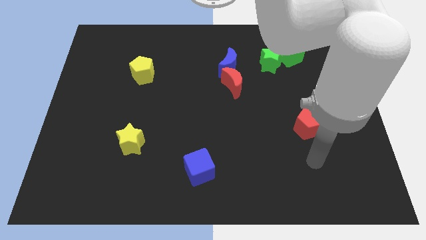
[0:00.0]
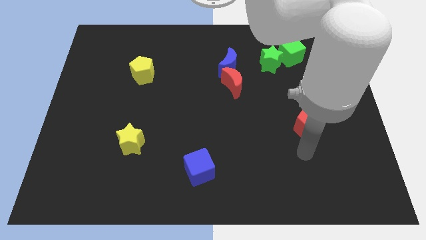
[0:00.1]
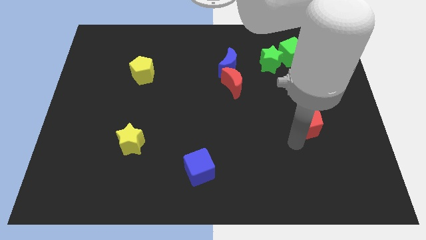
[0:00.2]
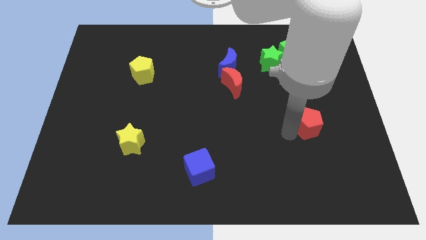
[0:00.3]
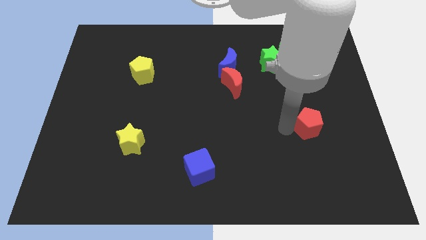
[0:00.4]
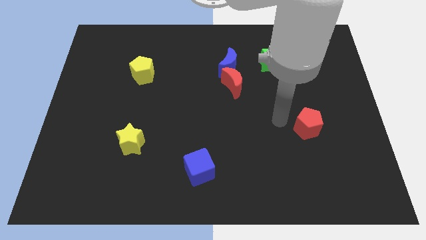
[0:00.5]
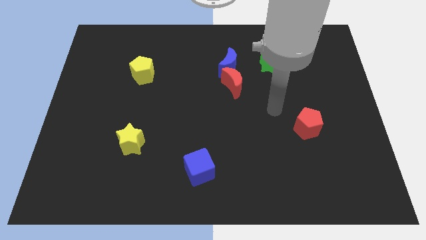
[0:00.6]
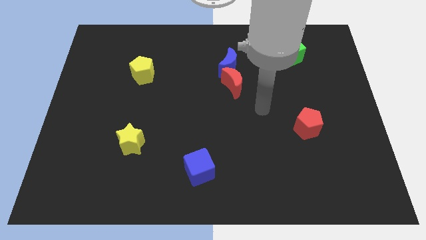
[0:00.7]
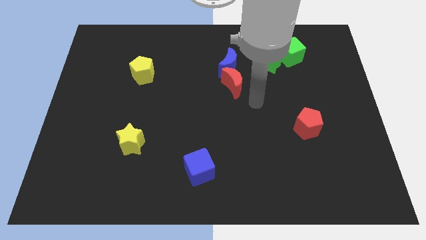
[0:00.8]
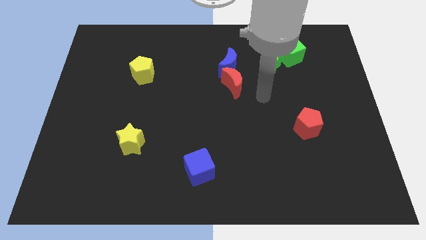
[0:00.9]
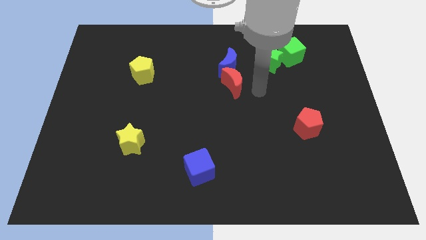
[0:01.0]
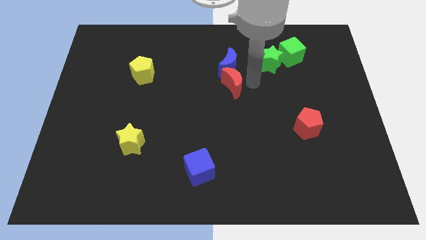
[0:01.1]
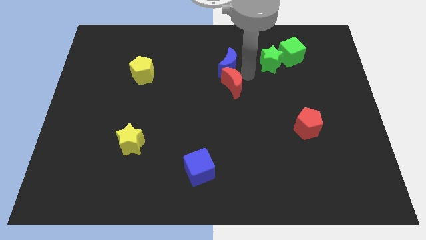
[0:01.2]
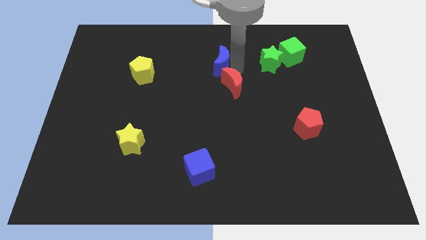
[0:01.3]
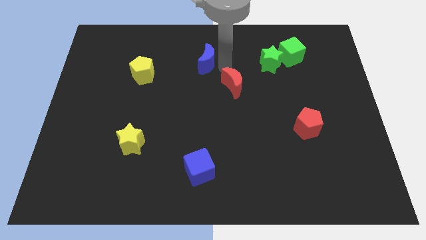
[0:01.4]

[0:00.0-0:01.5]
pull the red moon apart from the blue moon

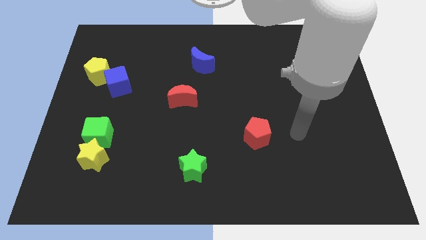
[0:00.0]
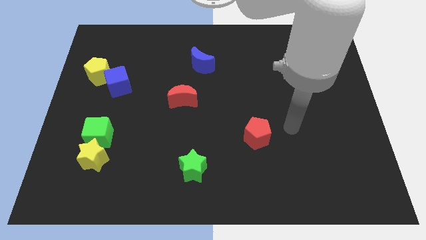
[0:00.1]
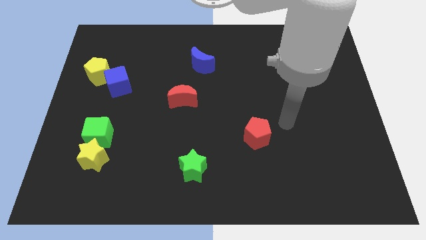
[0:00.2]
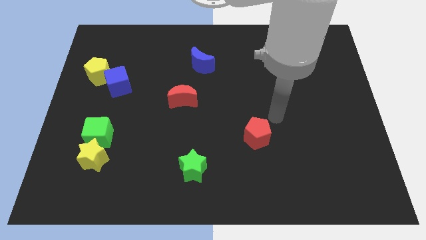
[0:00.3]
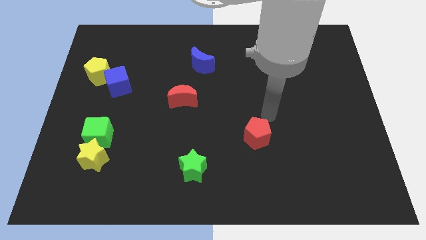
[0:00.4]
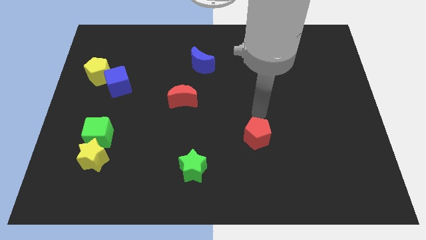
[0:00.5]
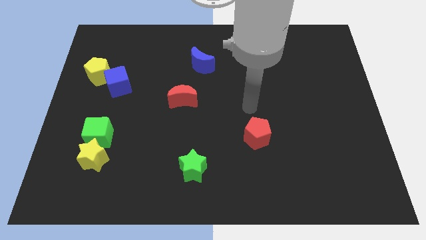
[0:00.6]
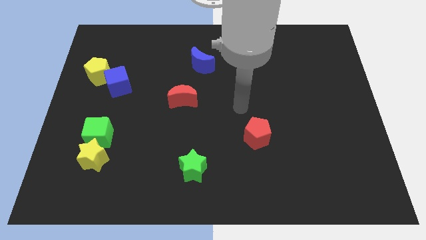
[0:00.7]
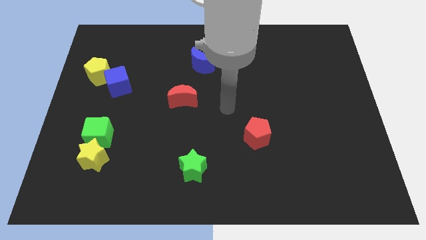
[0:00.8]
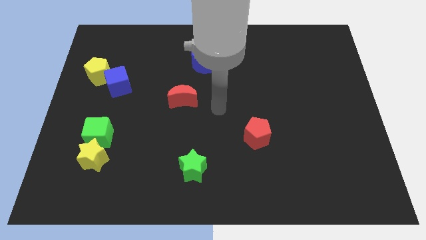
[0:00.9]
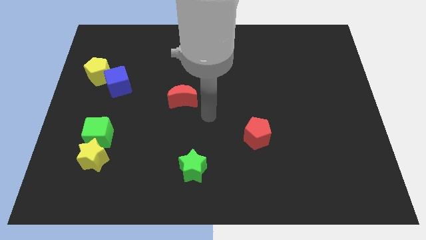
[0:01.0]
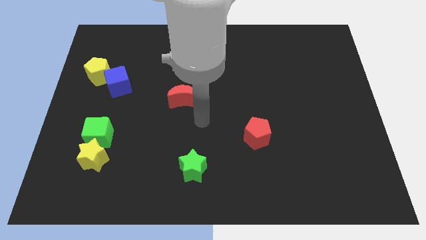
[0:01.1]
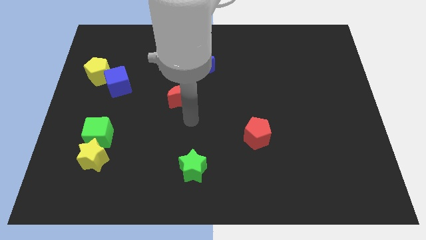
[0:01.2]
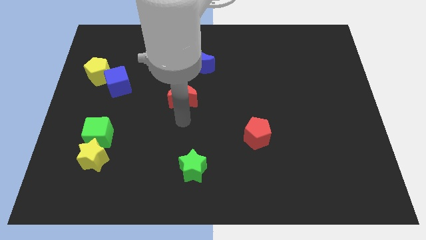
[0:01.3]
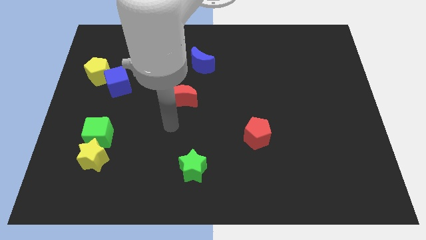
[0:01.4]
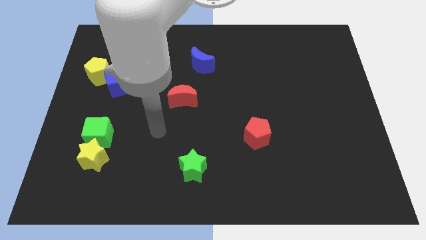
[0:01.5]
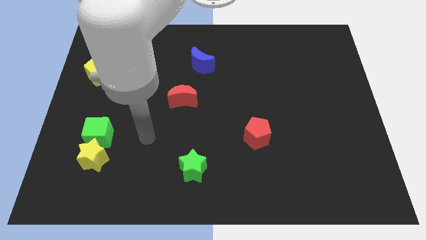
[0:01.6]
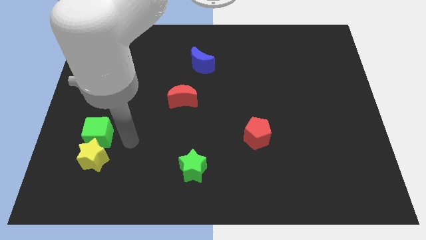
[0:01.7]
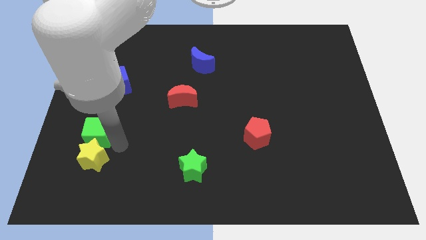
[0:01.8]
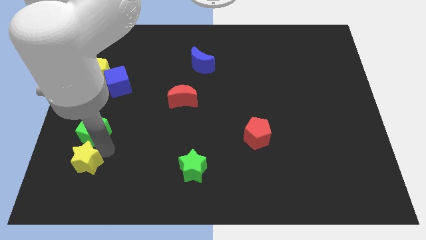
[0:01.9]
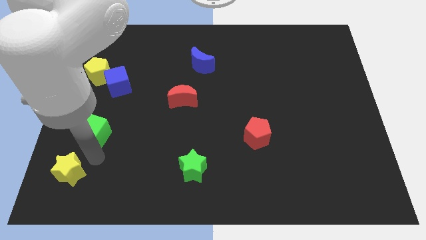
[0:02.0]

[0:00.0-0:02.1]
pull the green cube apart from the yellow star

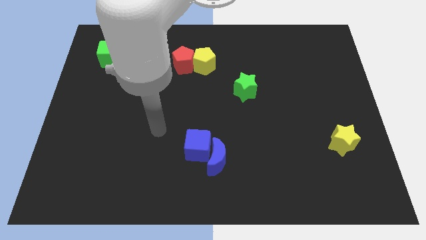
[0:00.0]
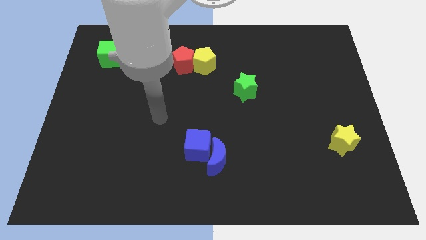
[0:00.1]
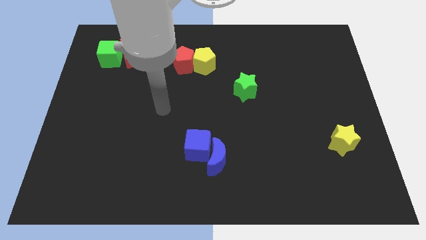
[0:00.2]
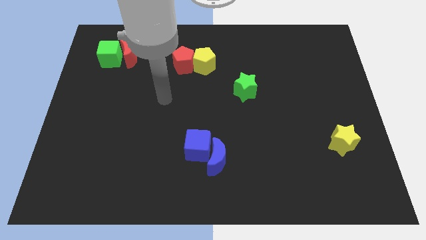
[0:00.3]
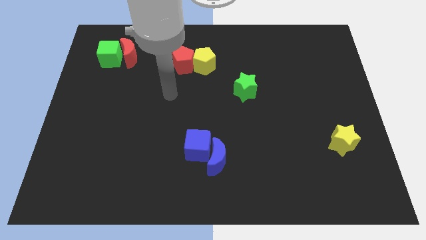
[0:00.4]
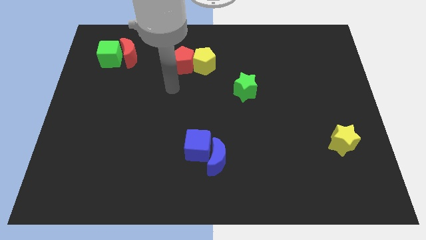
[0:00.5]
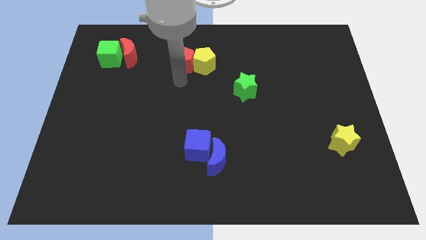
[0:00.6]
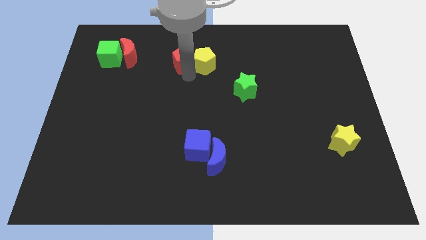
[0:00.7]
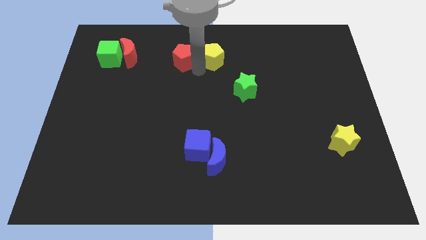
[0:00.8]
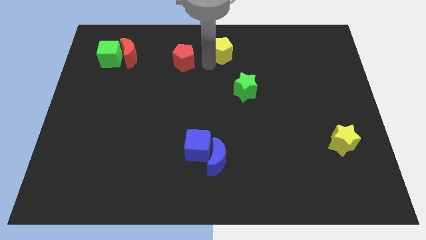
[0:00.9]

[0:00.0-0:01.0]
pull the red pentagon apart from the yellow pentagon

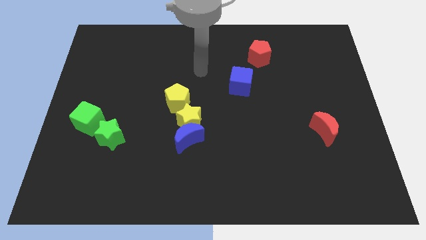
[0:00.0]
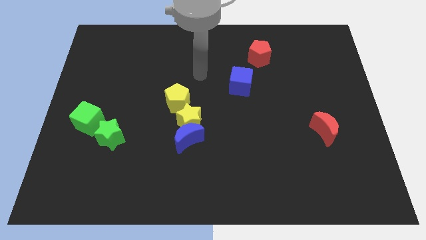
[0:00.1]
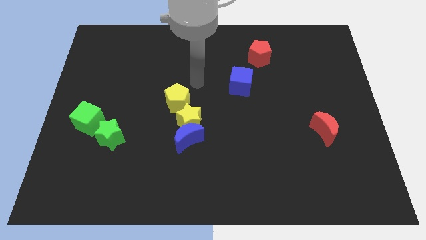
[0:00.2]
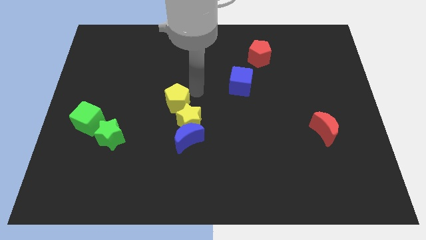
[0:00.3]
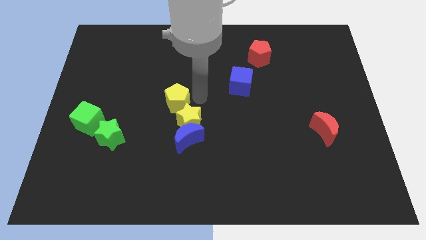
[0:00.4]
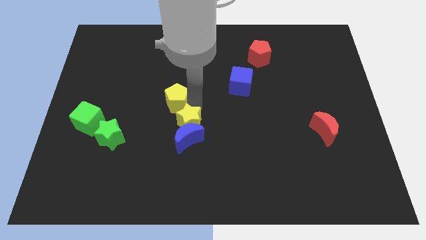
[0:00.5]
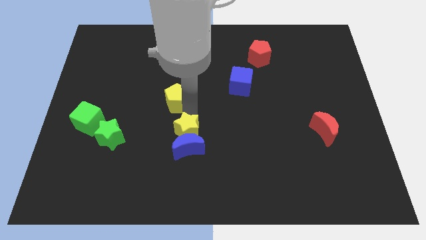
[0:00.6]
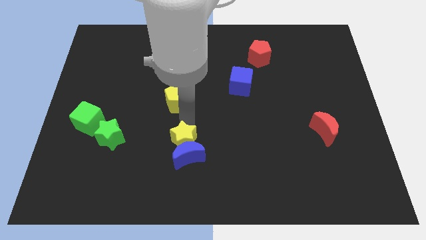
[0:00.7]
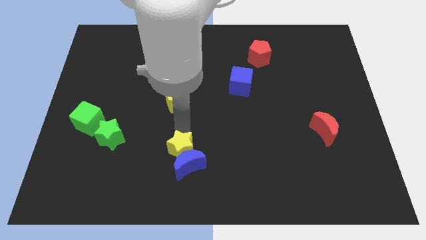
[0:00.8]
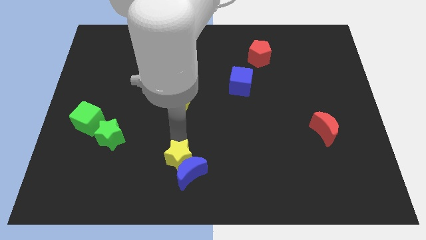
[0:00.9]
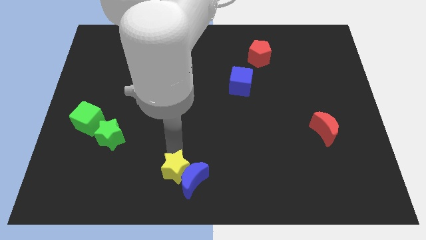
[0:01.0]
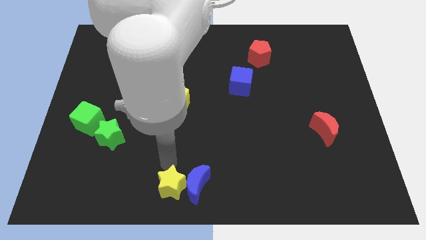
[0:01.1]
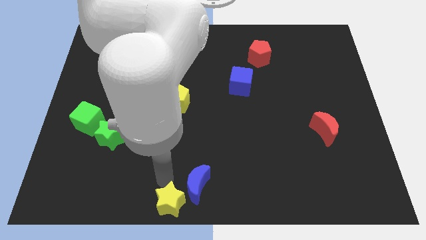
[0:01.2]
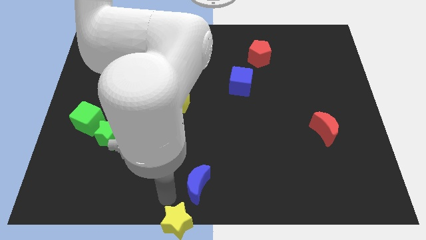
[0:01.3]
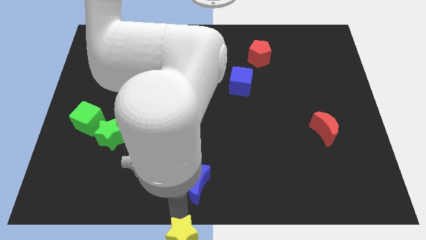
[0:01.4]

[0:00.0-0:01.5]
pull the blue moon apart from the yellow star

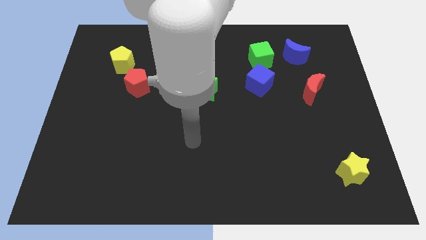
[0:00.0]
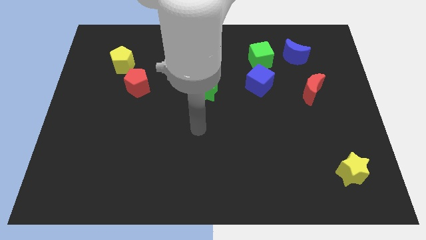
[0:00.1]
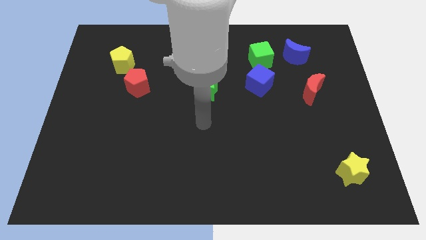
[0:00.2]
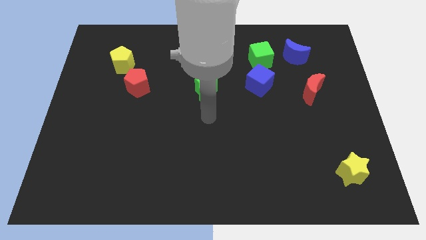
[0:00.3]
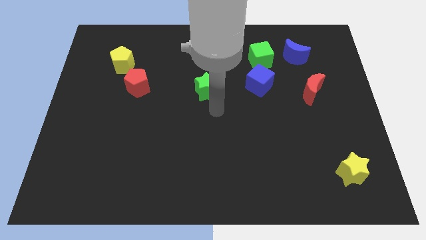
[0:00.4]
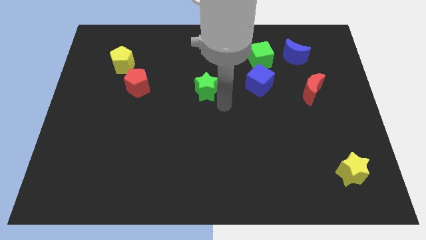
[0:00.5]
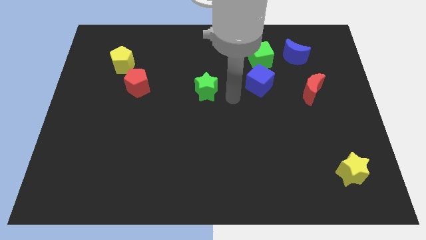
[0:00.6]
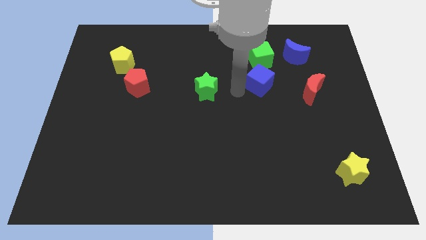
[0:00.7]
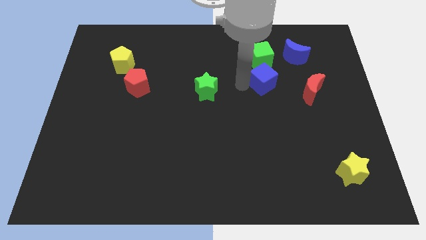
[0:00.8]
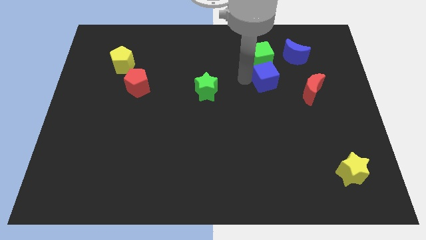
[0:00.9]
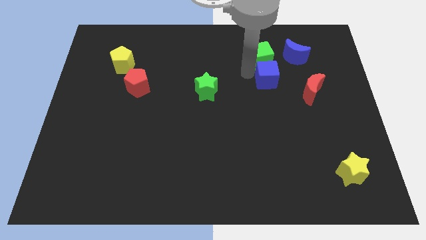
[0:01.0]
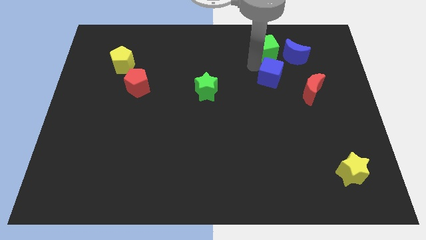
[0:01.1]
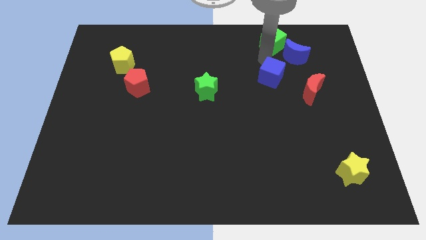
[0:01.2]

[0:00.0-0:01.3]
pull the blue cube apart from the green cube

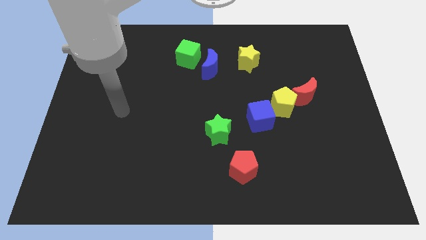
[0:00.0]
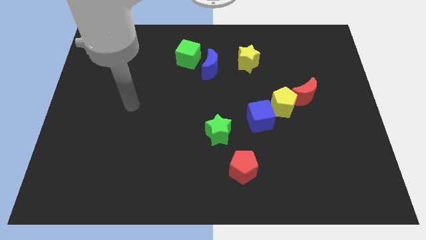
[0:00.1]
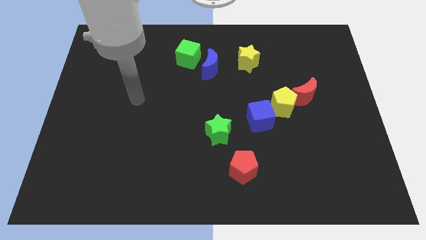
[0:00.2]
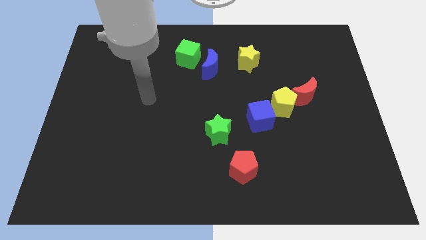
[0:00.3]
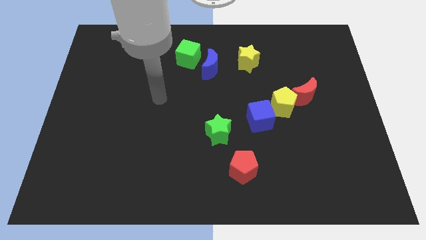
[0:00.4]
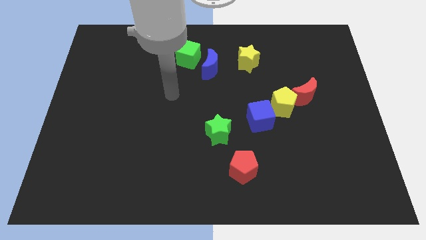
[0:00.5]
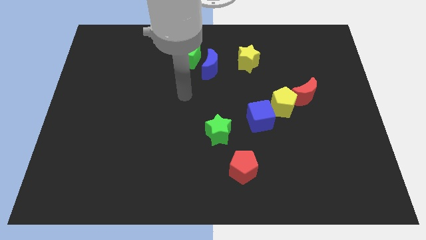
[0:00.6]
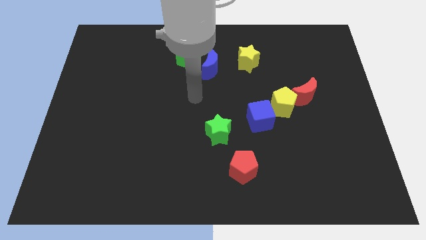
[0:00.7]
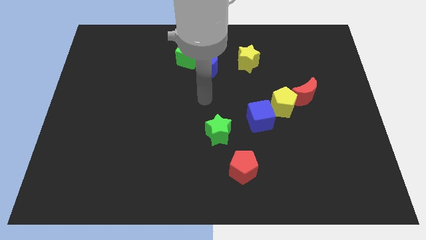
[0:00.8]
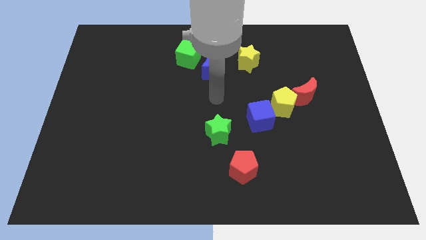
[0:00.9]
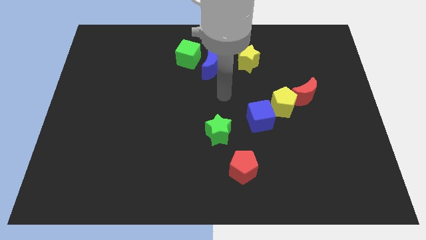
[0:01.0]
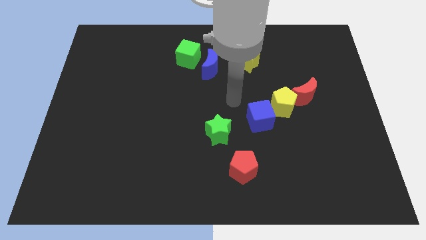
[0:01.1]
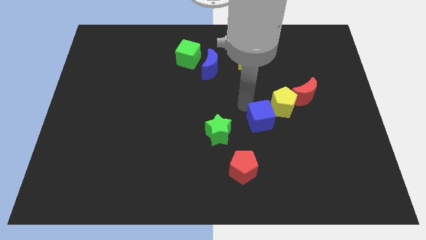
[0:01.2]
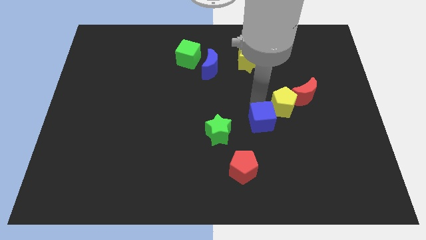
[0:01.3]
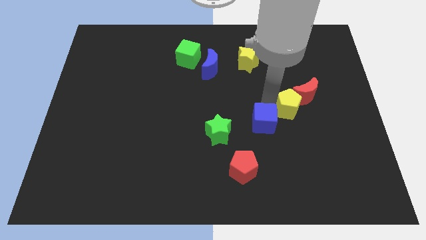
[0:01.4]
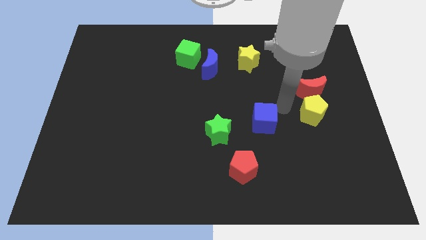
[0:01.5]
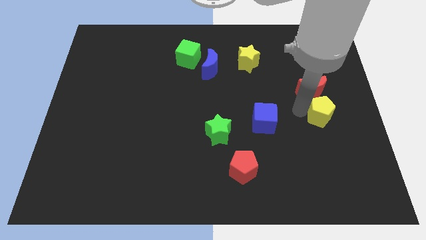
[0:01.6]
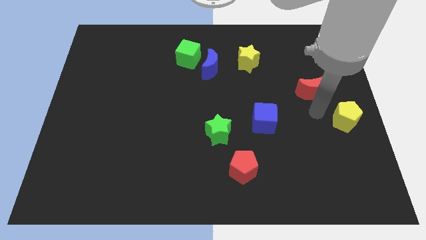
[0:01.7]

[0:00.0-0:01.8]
separate the red moon from the yellow pentagon

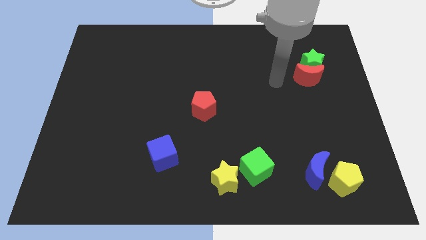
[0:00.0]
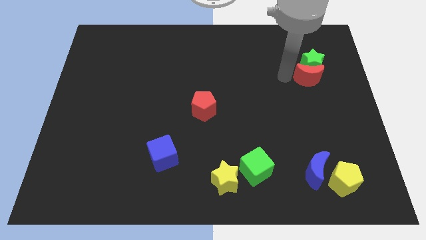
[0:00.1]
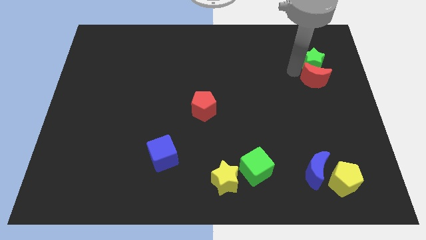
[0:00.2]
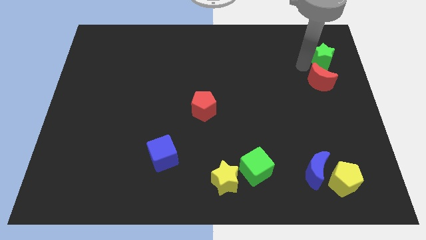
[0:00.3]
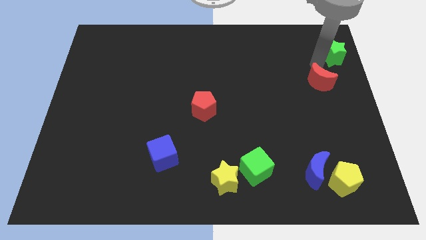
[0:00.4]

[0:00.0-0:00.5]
pull the red moon apart from the green star
